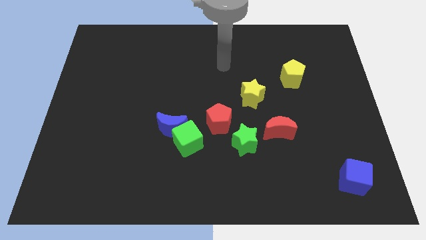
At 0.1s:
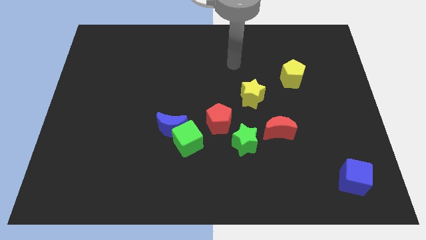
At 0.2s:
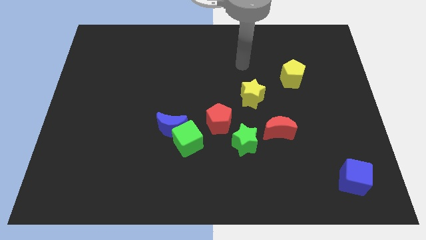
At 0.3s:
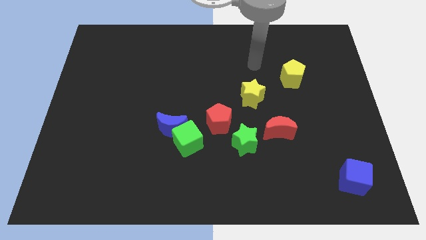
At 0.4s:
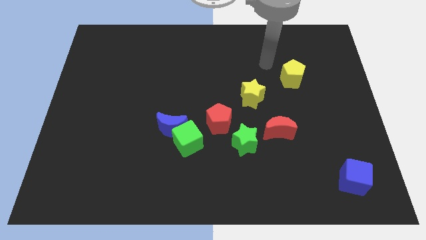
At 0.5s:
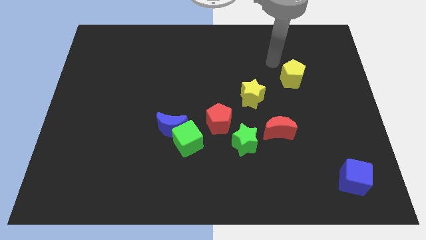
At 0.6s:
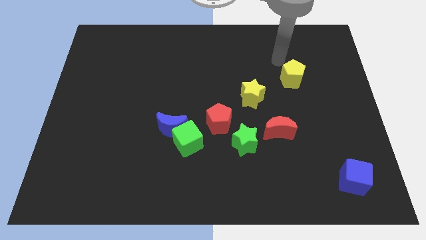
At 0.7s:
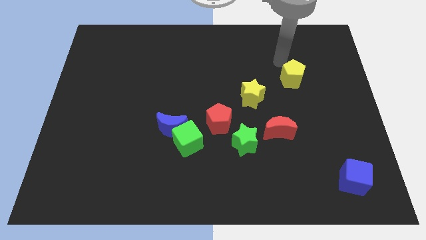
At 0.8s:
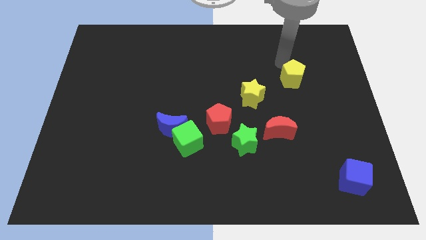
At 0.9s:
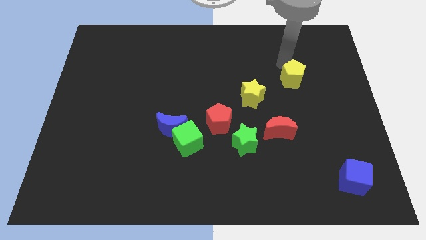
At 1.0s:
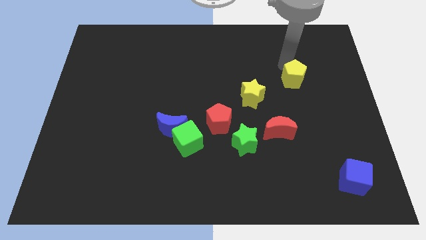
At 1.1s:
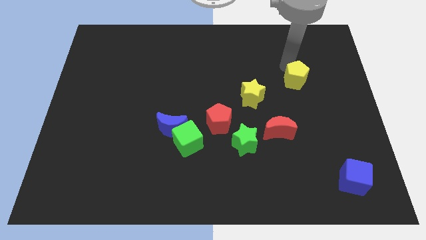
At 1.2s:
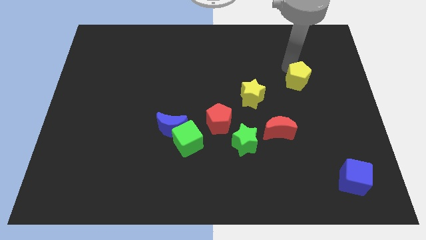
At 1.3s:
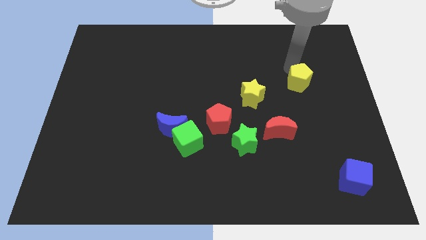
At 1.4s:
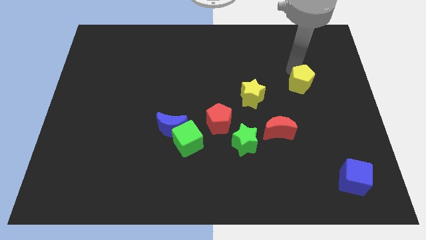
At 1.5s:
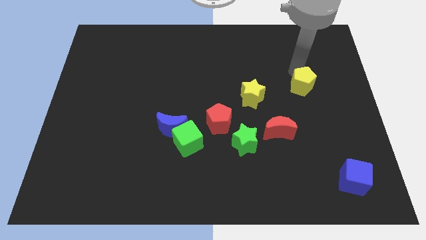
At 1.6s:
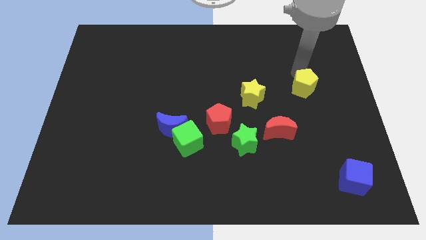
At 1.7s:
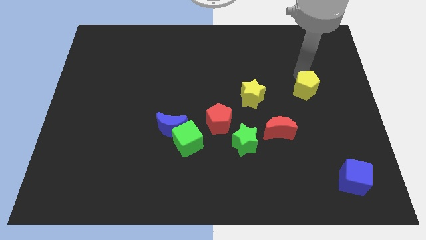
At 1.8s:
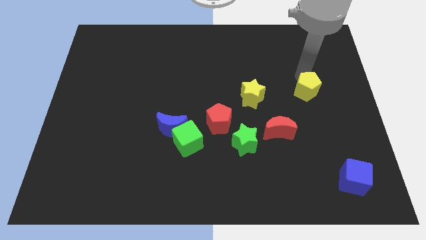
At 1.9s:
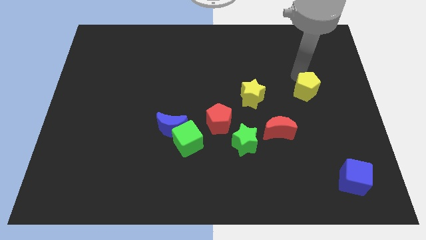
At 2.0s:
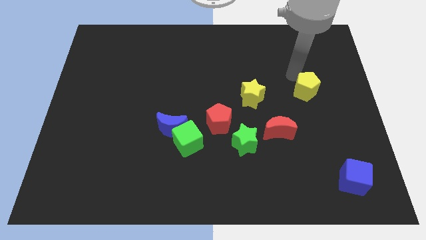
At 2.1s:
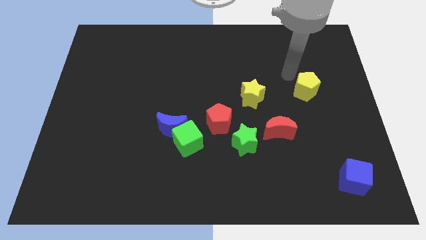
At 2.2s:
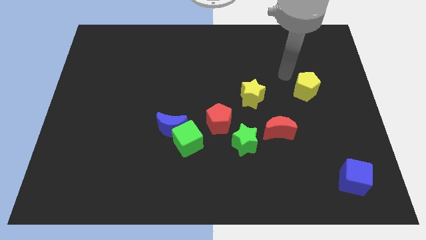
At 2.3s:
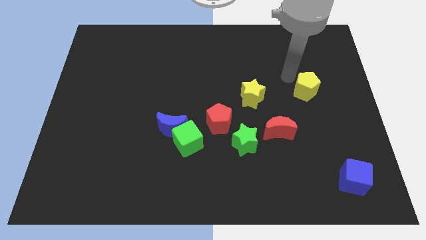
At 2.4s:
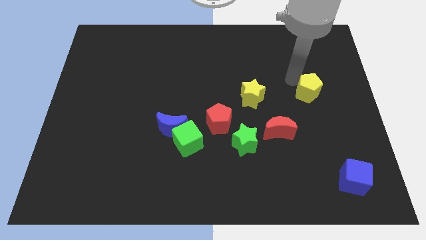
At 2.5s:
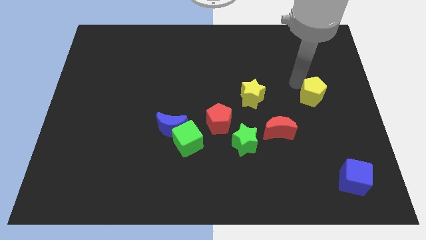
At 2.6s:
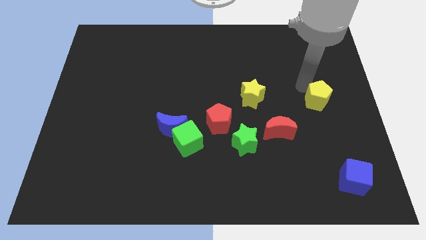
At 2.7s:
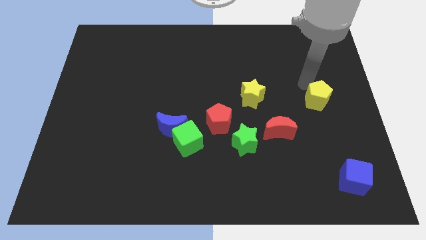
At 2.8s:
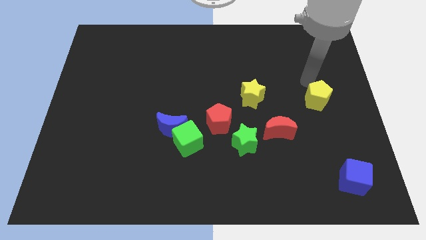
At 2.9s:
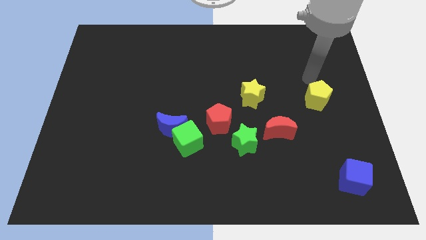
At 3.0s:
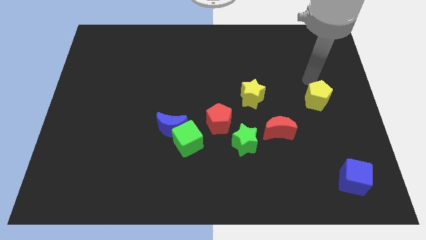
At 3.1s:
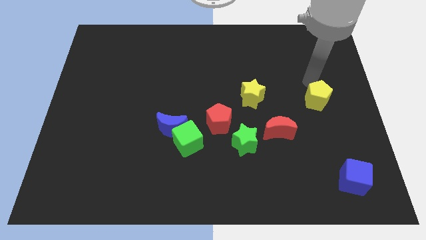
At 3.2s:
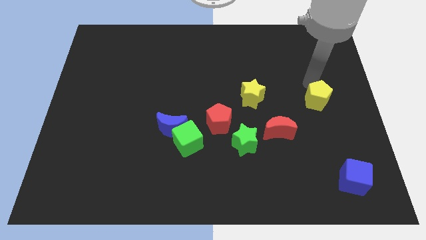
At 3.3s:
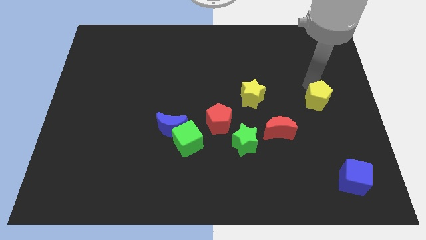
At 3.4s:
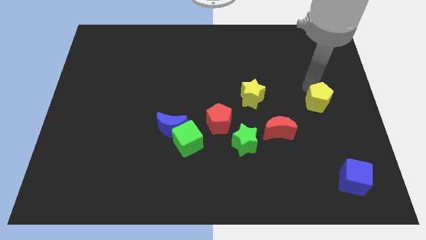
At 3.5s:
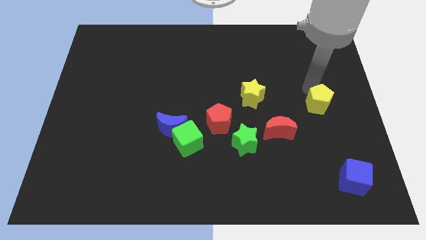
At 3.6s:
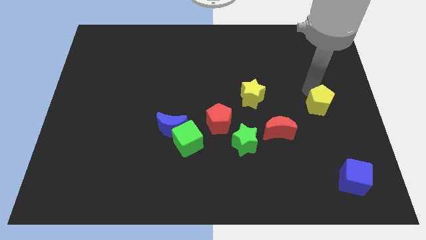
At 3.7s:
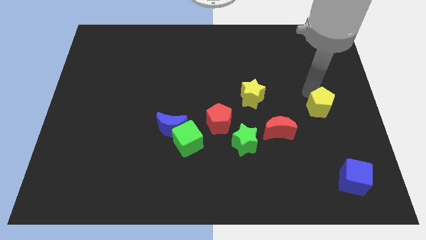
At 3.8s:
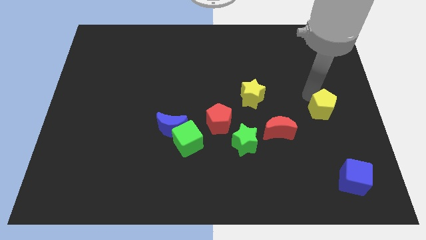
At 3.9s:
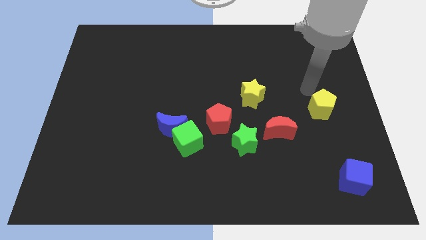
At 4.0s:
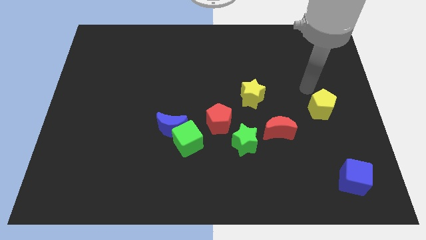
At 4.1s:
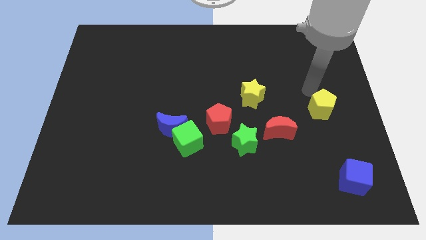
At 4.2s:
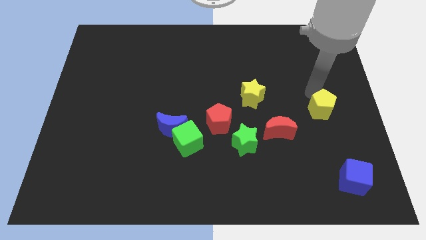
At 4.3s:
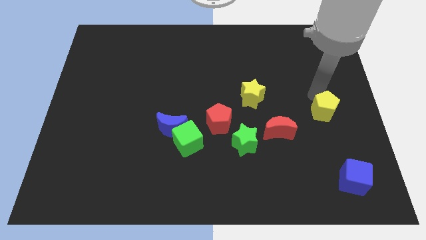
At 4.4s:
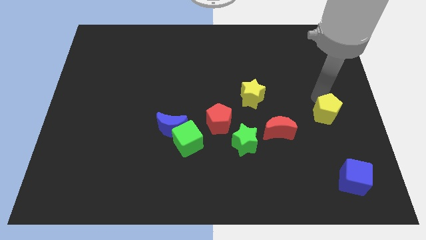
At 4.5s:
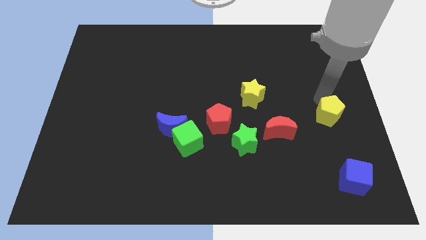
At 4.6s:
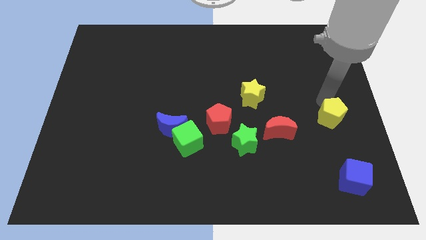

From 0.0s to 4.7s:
slide the yellow pentagon to the top side of the blue cube

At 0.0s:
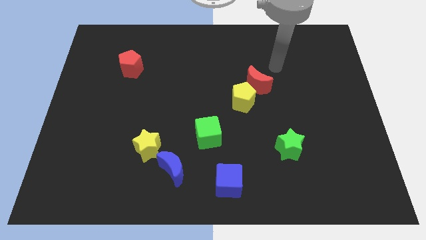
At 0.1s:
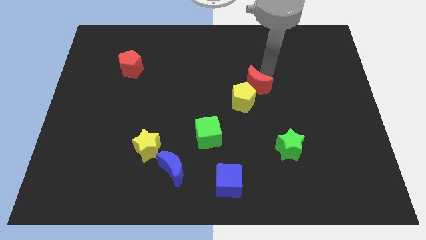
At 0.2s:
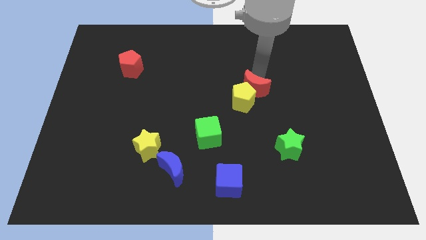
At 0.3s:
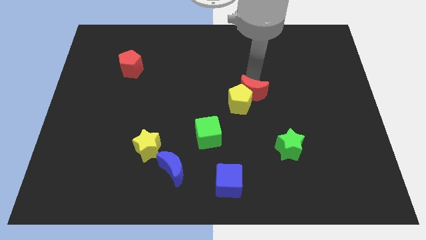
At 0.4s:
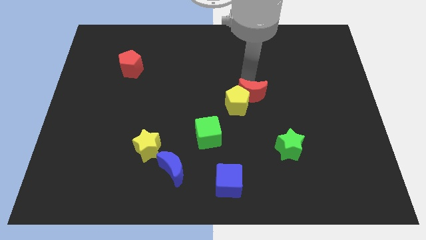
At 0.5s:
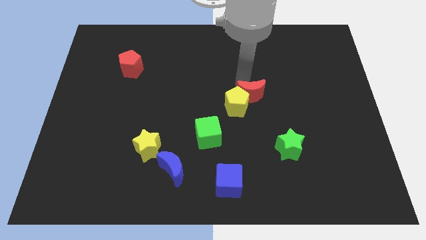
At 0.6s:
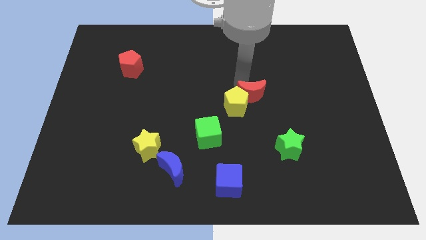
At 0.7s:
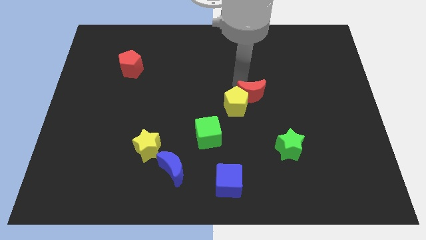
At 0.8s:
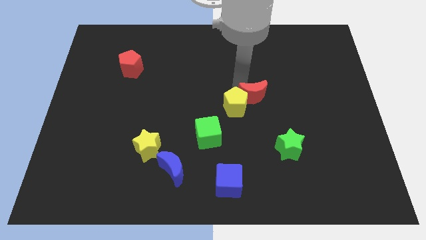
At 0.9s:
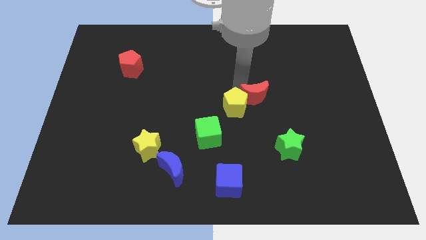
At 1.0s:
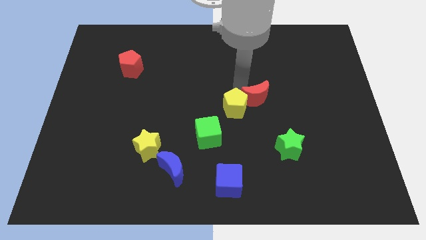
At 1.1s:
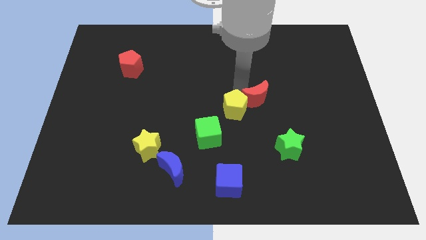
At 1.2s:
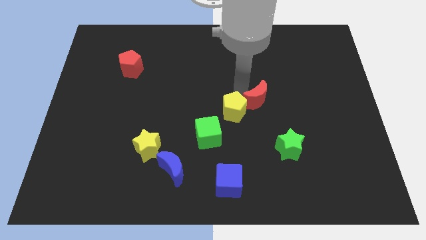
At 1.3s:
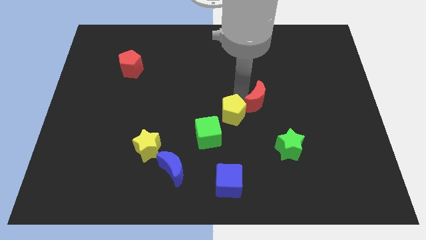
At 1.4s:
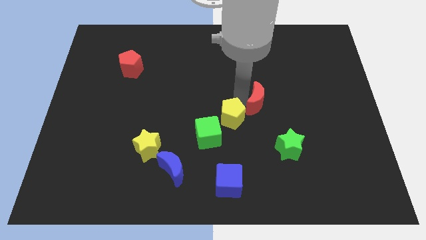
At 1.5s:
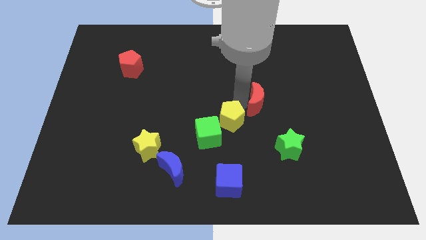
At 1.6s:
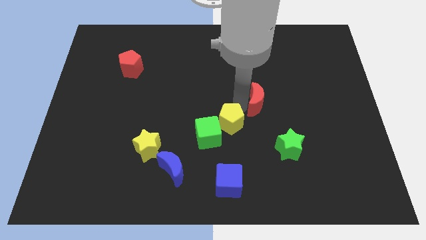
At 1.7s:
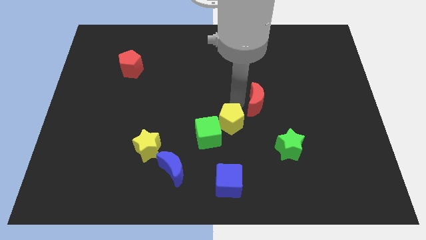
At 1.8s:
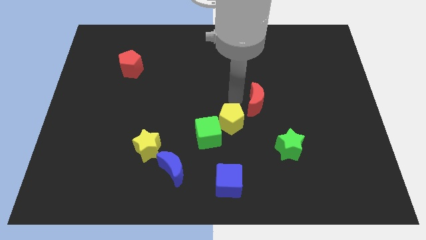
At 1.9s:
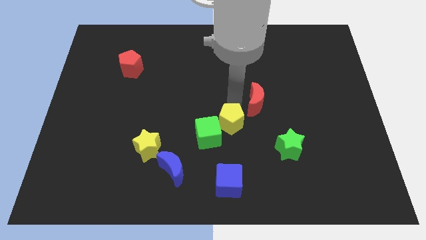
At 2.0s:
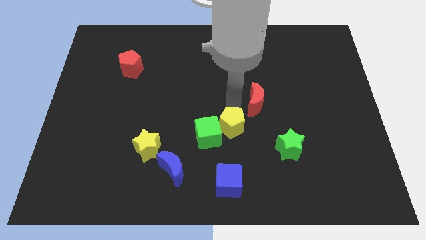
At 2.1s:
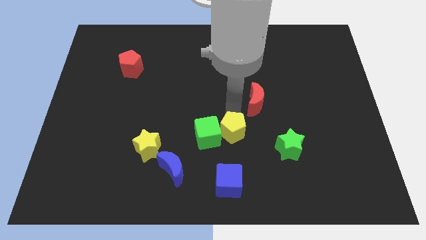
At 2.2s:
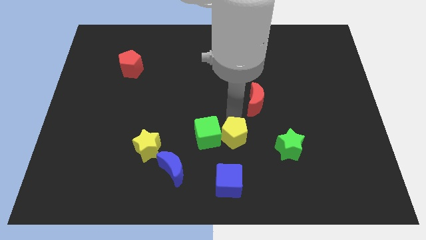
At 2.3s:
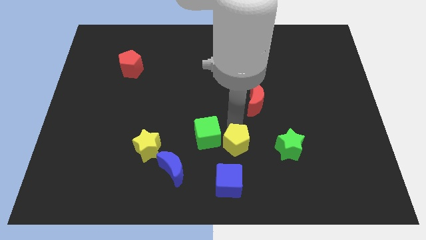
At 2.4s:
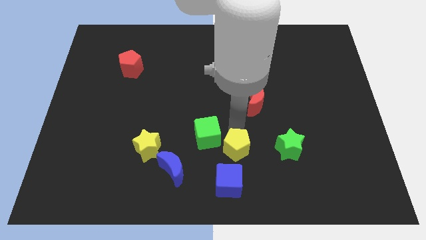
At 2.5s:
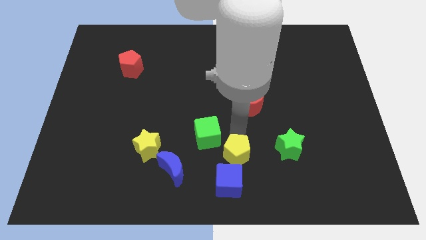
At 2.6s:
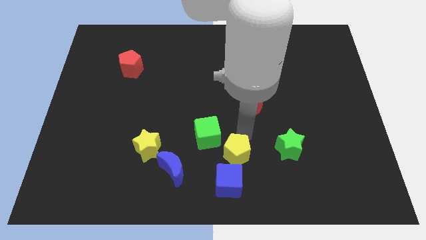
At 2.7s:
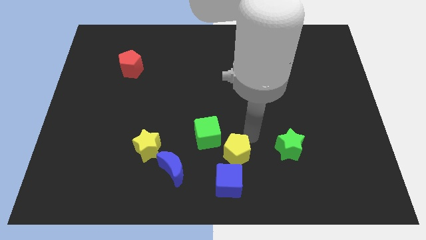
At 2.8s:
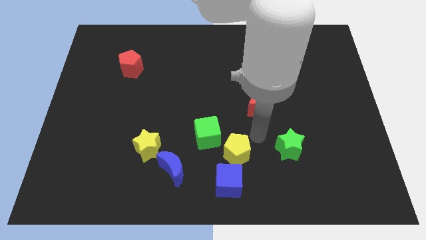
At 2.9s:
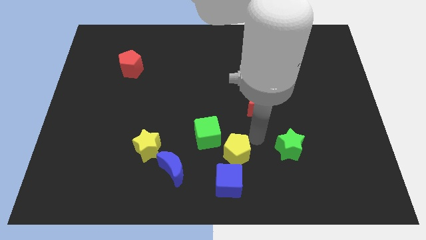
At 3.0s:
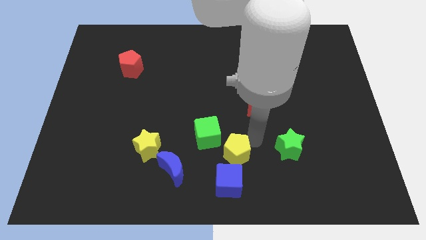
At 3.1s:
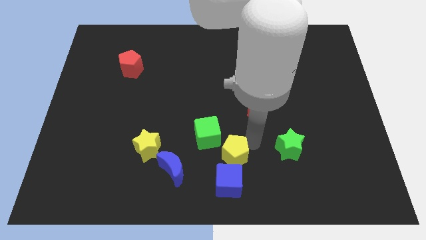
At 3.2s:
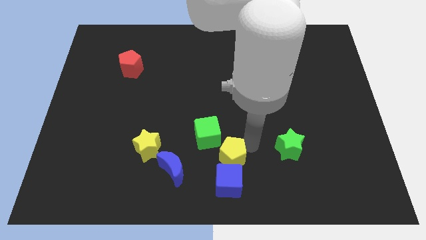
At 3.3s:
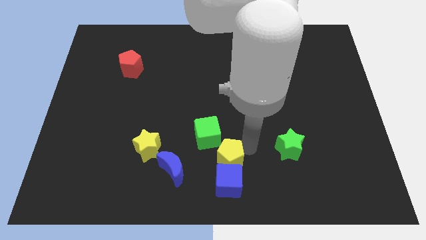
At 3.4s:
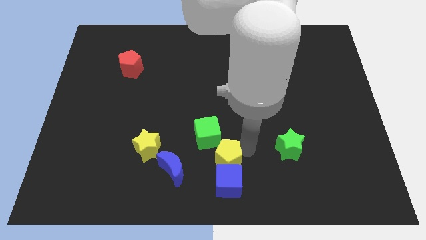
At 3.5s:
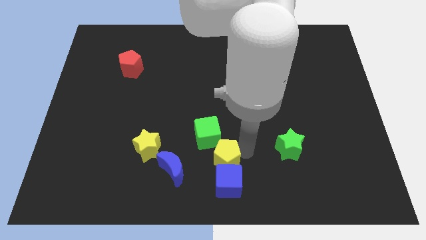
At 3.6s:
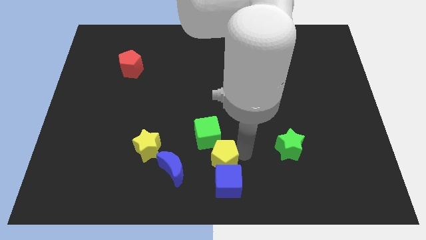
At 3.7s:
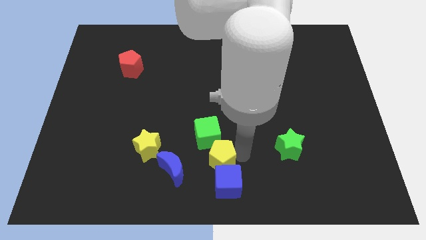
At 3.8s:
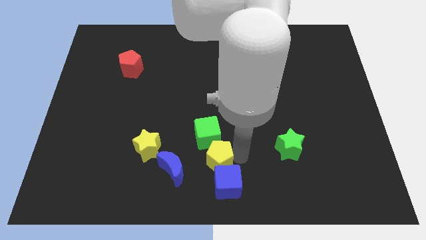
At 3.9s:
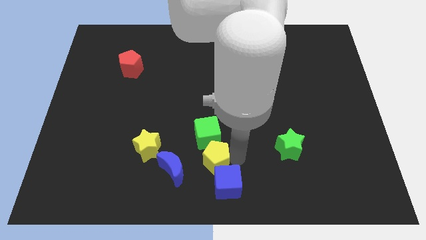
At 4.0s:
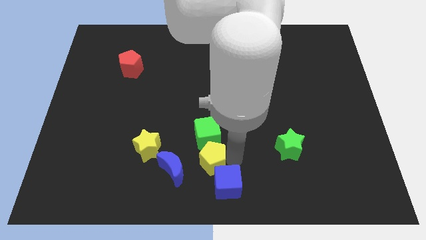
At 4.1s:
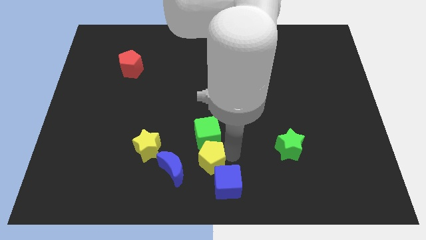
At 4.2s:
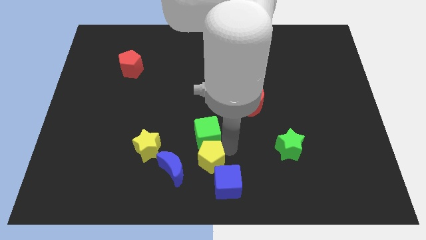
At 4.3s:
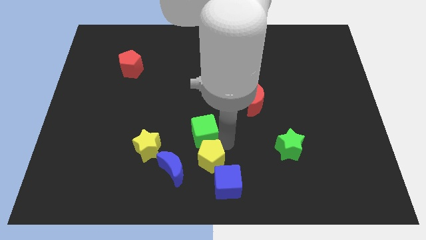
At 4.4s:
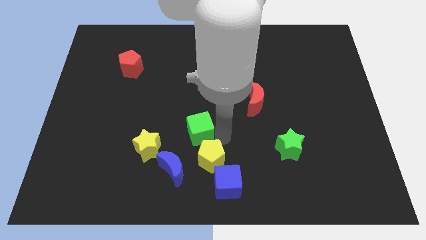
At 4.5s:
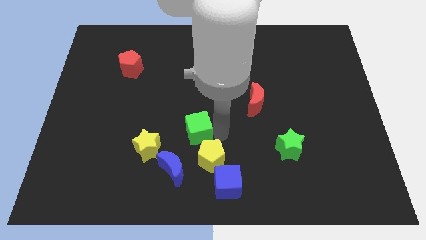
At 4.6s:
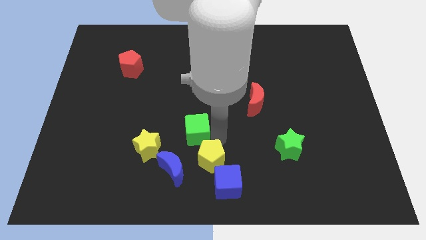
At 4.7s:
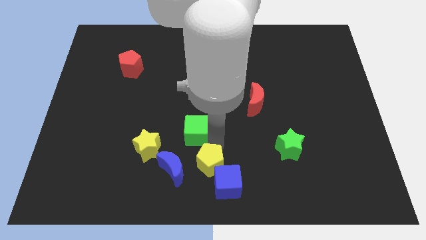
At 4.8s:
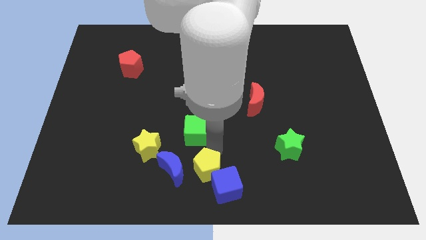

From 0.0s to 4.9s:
move the yellow pentagon to the left side of the blue cube
